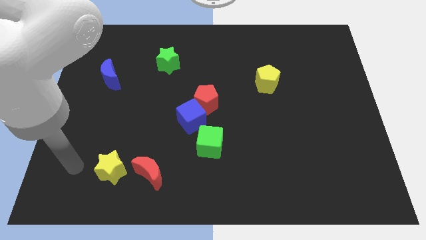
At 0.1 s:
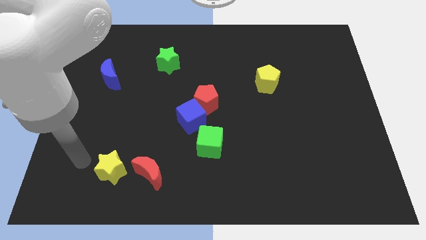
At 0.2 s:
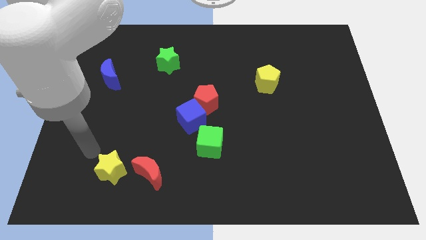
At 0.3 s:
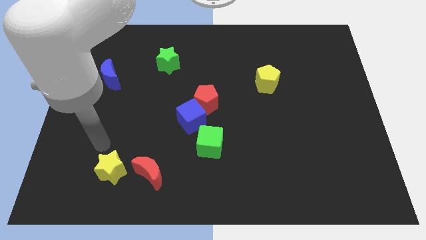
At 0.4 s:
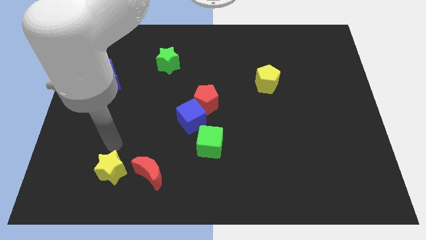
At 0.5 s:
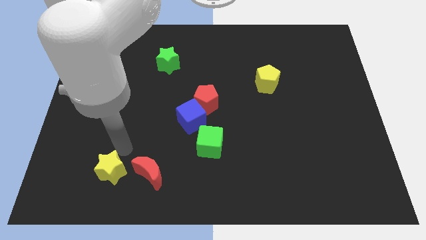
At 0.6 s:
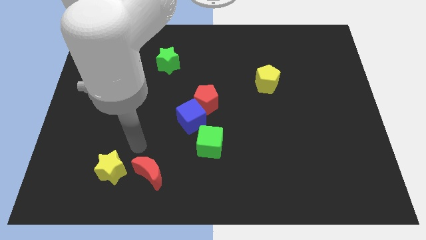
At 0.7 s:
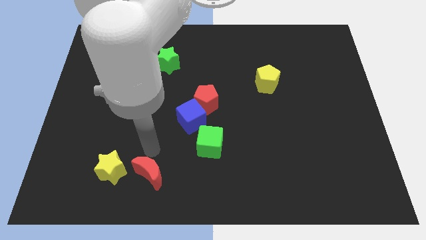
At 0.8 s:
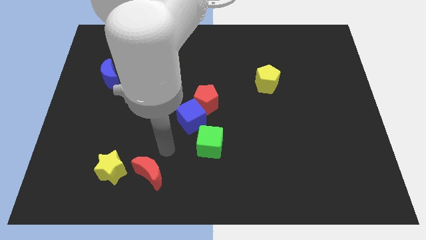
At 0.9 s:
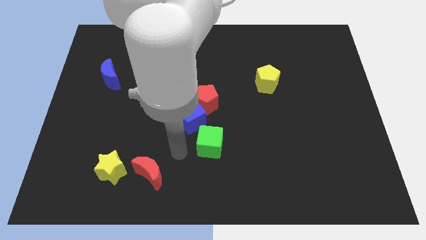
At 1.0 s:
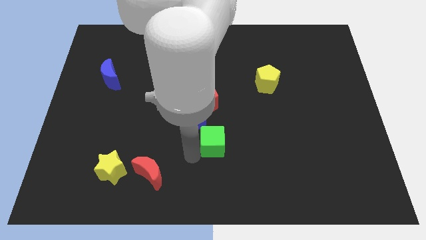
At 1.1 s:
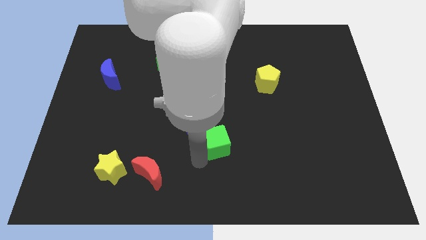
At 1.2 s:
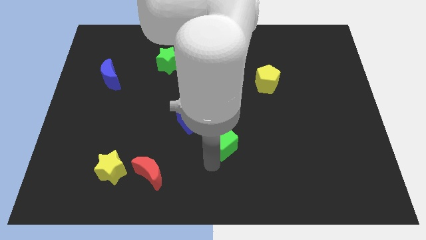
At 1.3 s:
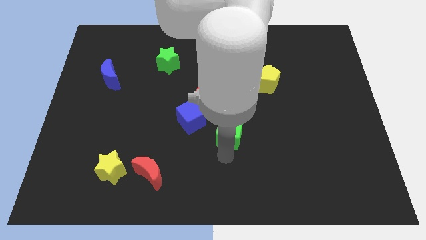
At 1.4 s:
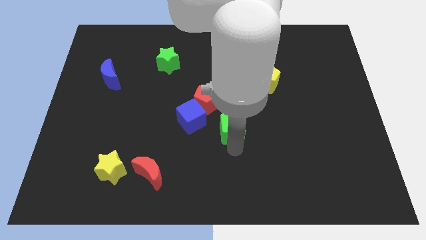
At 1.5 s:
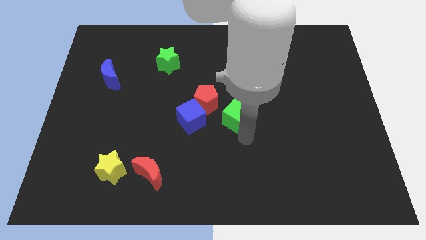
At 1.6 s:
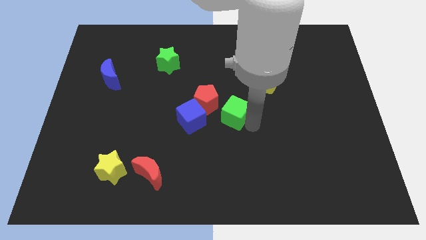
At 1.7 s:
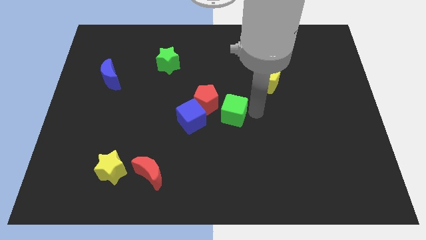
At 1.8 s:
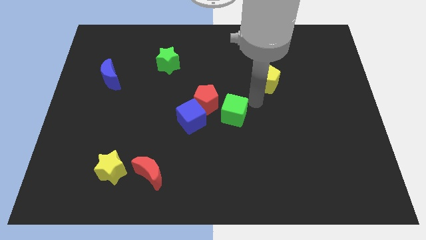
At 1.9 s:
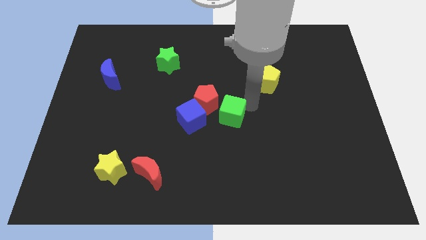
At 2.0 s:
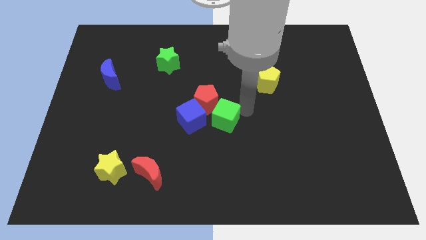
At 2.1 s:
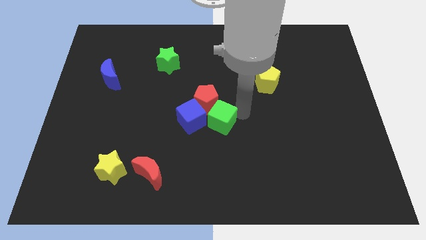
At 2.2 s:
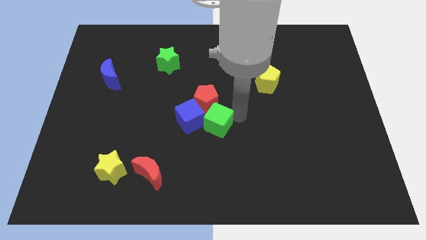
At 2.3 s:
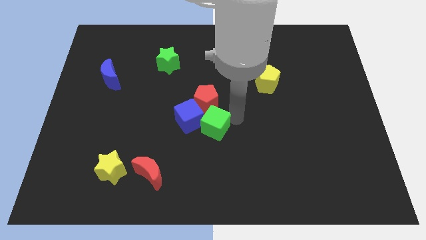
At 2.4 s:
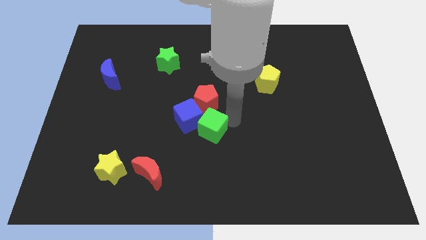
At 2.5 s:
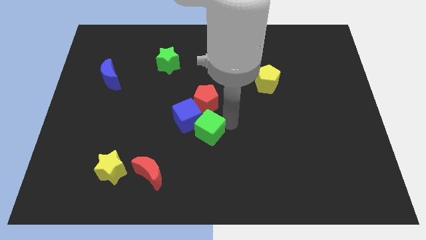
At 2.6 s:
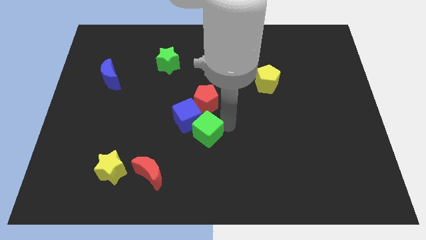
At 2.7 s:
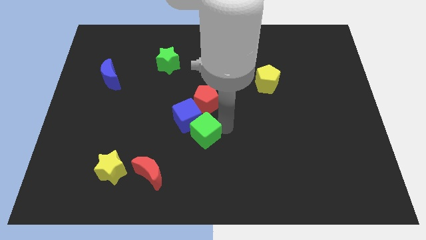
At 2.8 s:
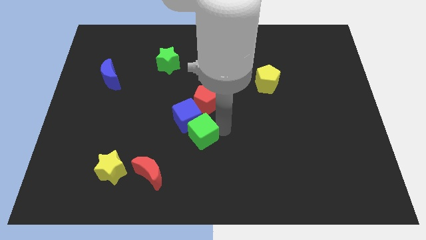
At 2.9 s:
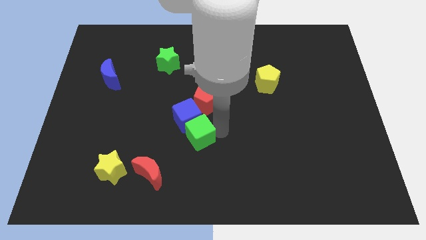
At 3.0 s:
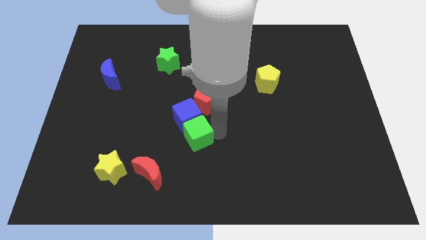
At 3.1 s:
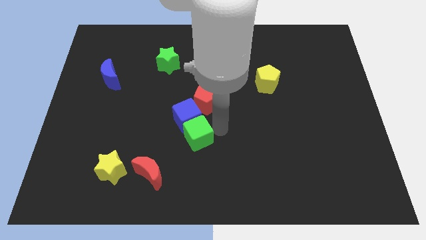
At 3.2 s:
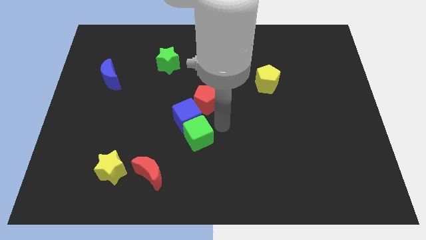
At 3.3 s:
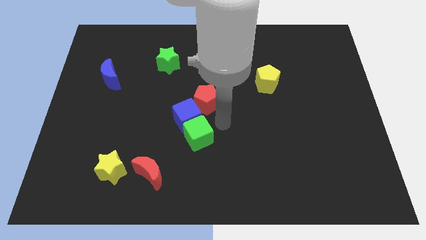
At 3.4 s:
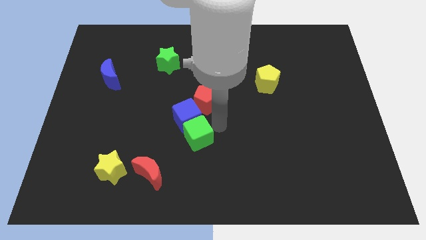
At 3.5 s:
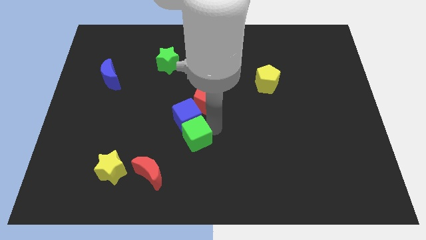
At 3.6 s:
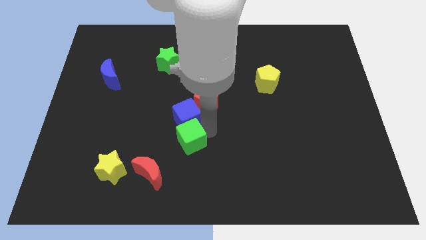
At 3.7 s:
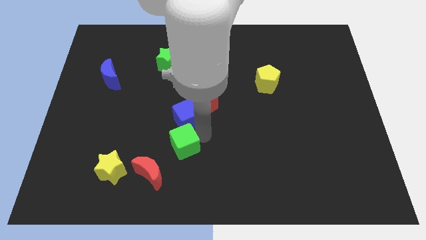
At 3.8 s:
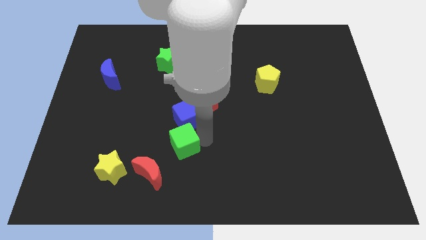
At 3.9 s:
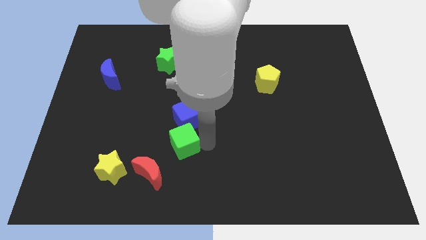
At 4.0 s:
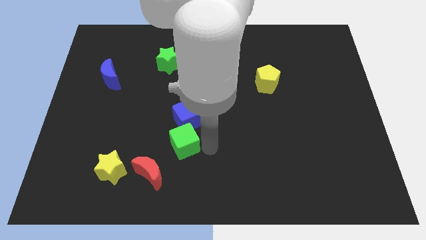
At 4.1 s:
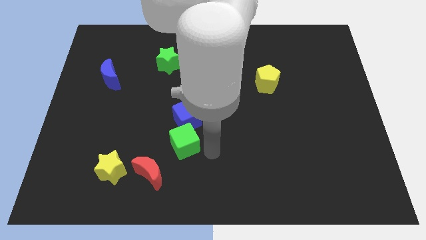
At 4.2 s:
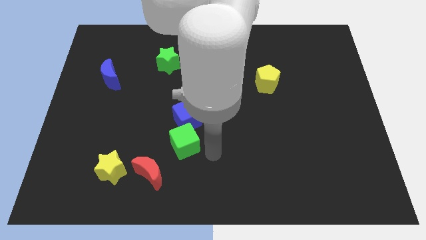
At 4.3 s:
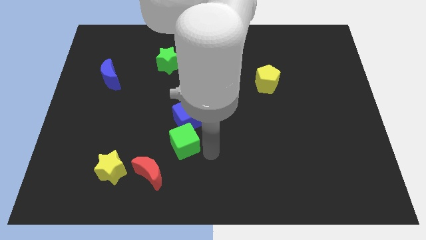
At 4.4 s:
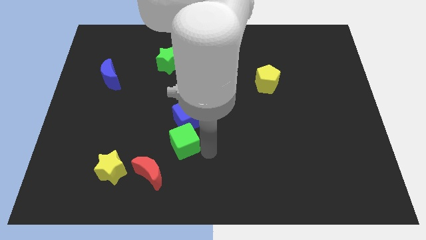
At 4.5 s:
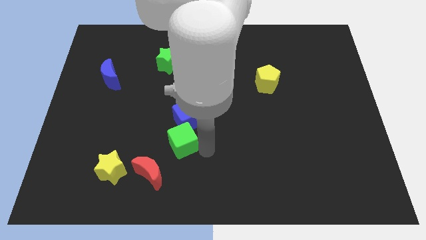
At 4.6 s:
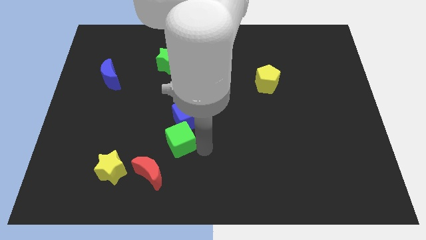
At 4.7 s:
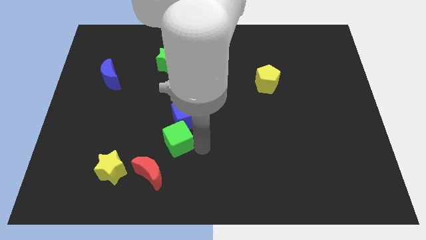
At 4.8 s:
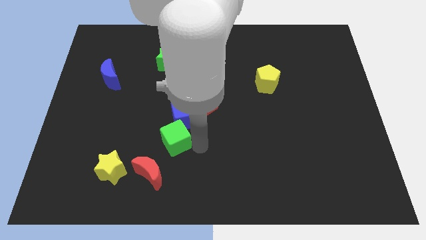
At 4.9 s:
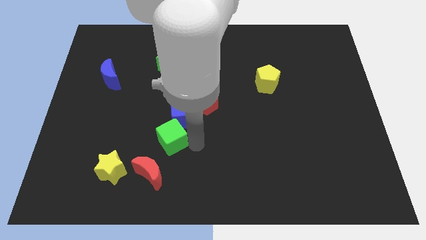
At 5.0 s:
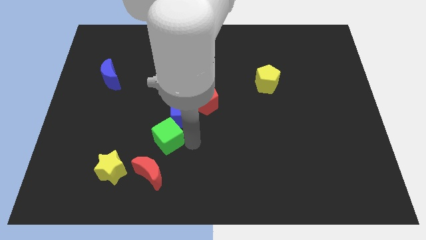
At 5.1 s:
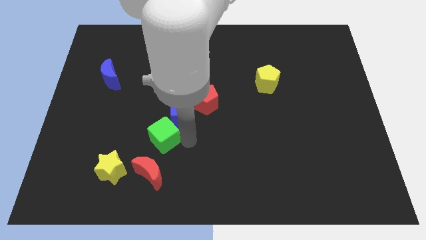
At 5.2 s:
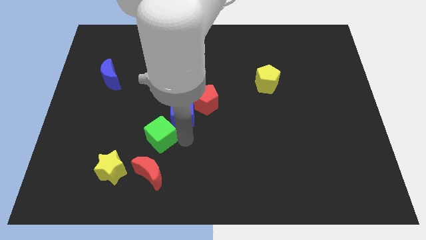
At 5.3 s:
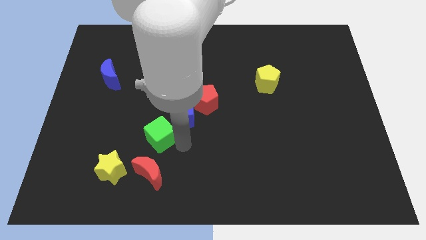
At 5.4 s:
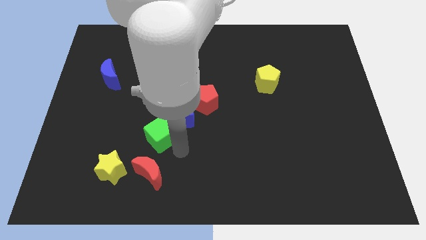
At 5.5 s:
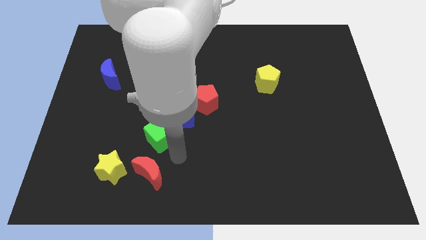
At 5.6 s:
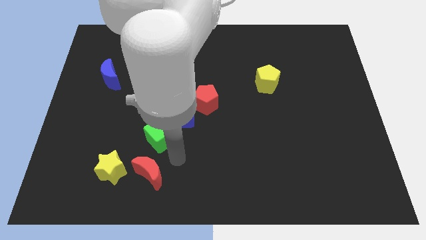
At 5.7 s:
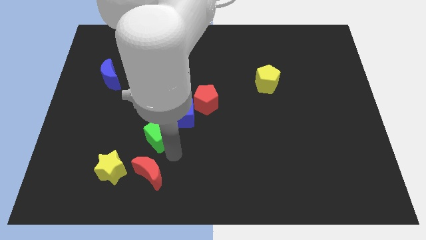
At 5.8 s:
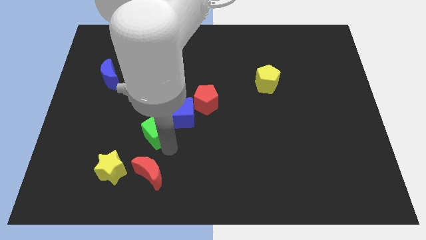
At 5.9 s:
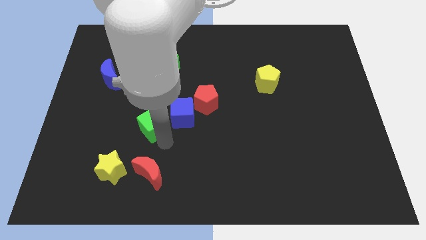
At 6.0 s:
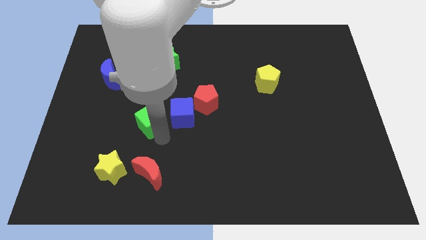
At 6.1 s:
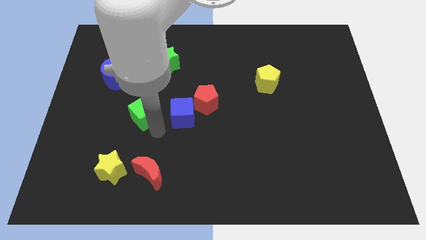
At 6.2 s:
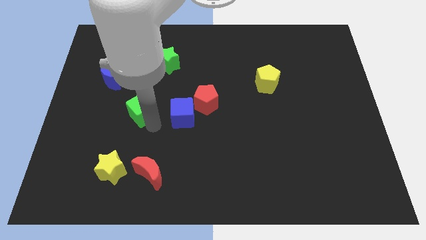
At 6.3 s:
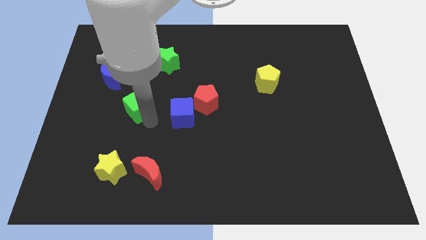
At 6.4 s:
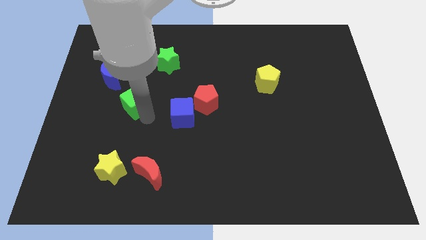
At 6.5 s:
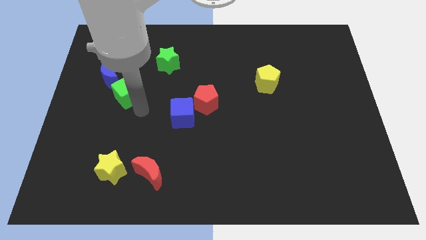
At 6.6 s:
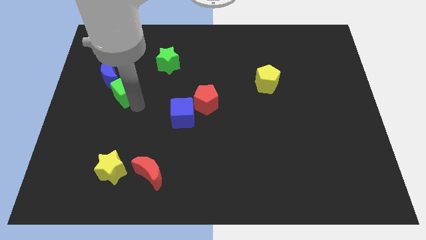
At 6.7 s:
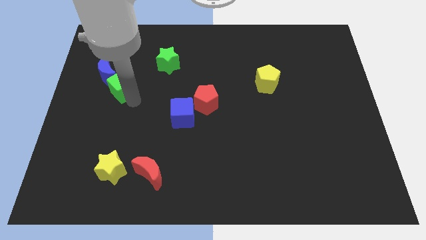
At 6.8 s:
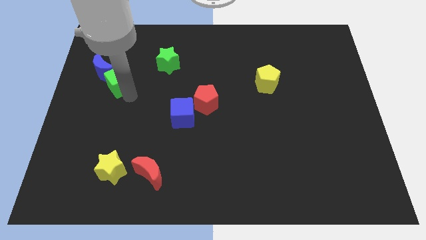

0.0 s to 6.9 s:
move the green cube to the blue moon

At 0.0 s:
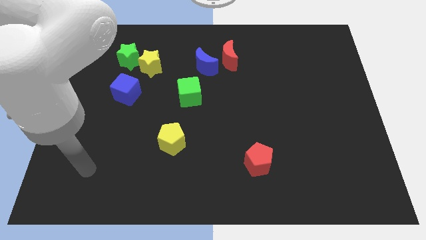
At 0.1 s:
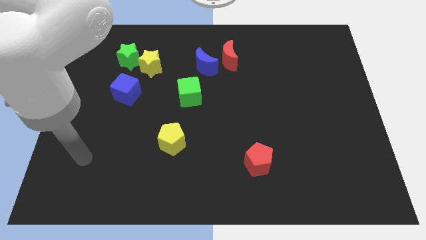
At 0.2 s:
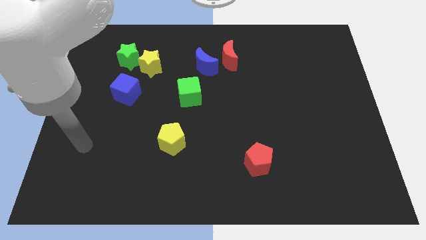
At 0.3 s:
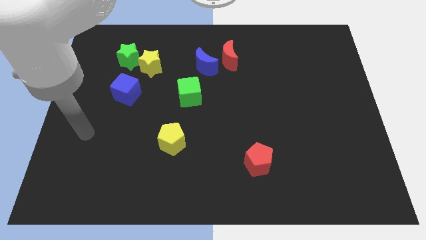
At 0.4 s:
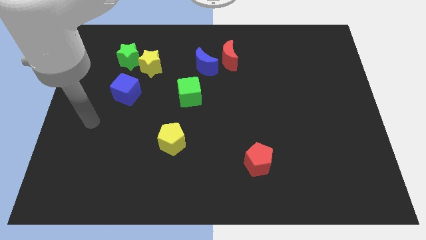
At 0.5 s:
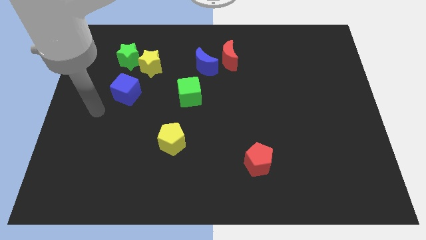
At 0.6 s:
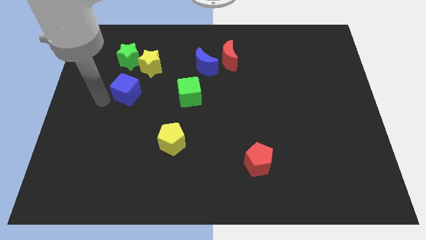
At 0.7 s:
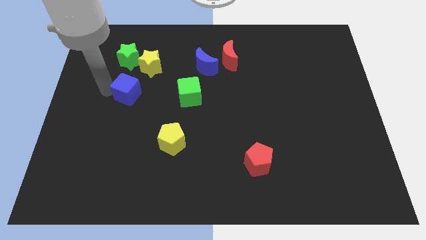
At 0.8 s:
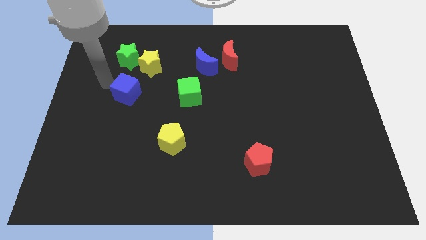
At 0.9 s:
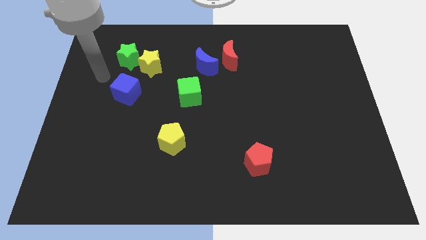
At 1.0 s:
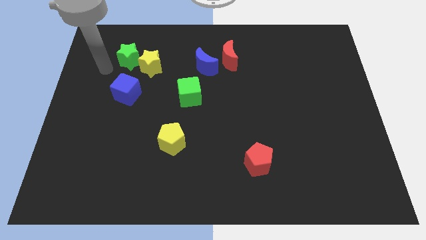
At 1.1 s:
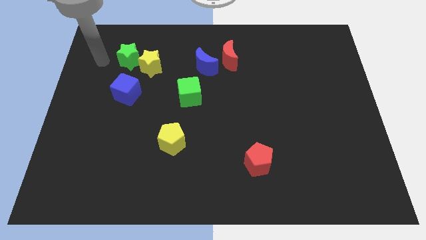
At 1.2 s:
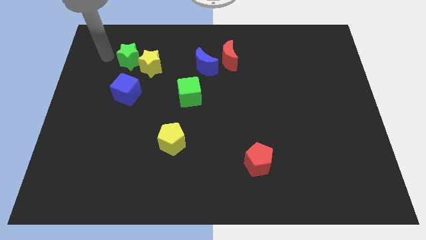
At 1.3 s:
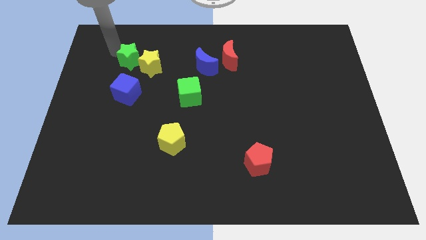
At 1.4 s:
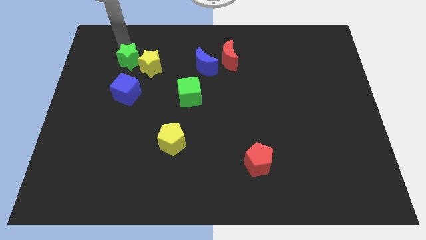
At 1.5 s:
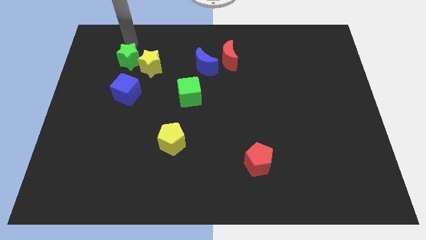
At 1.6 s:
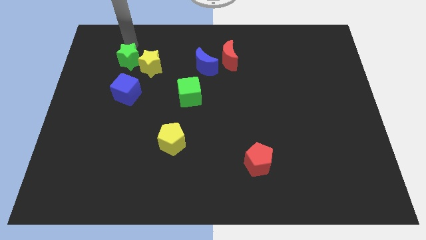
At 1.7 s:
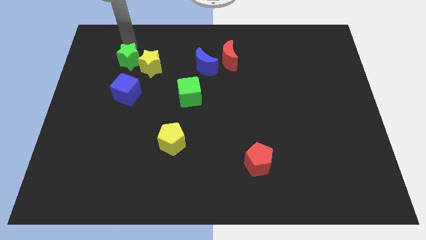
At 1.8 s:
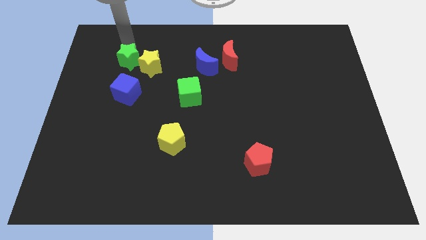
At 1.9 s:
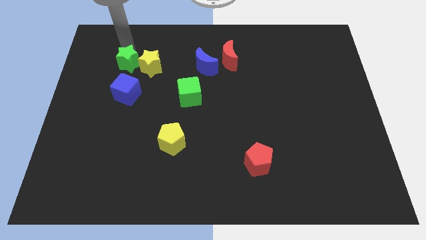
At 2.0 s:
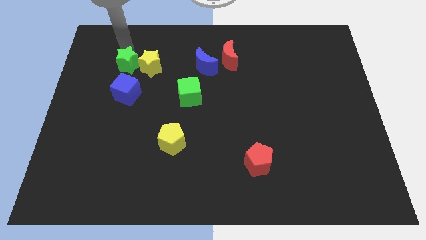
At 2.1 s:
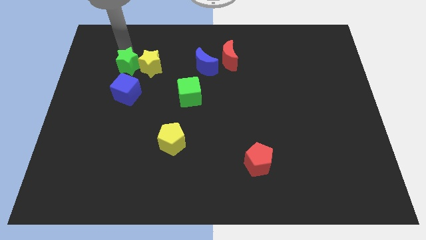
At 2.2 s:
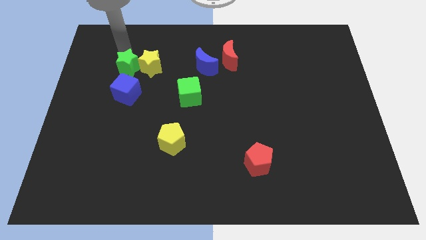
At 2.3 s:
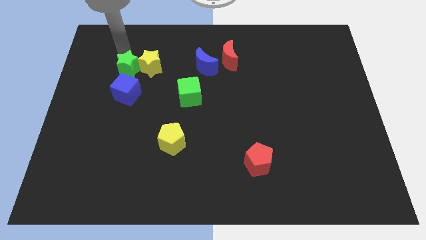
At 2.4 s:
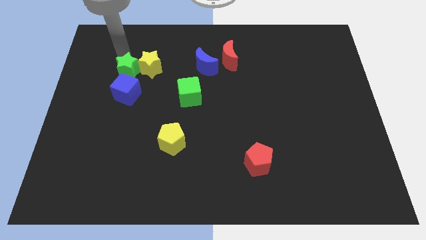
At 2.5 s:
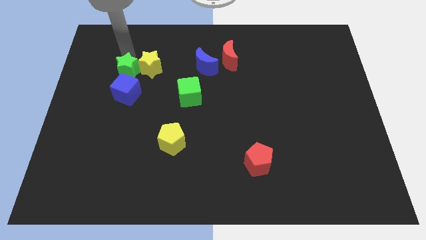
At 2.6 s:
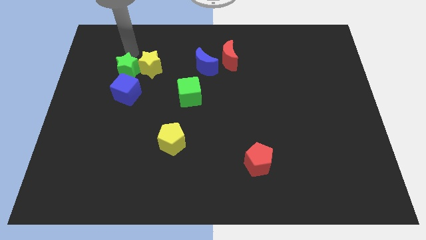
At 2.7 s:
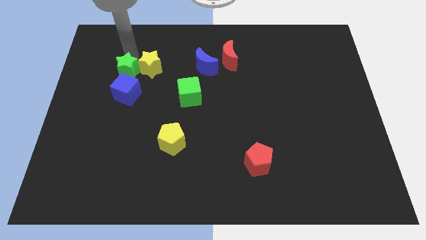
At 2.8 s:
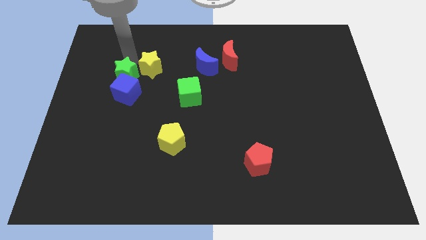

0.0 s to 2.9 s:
push the green star next to the blue cube
